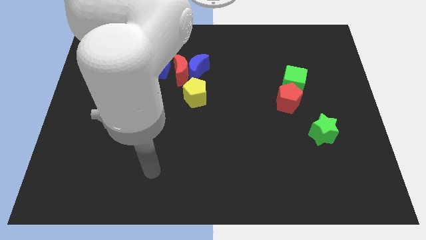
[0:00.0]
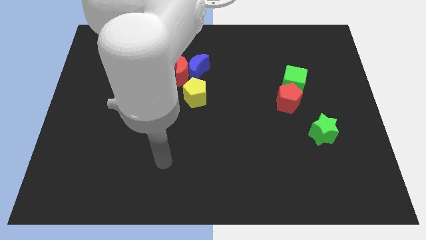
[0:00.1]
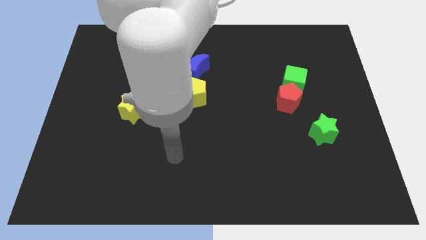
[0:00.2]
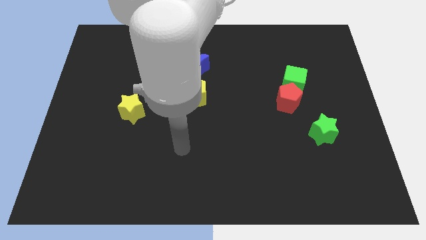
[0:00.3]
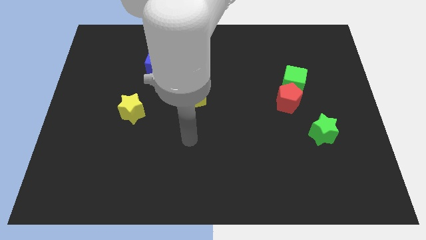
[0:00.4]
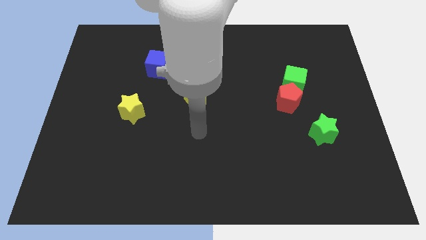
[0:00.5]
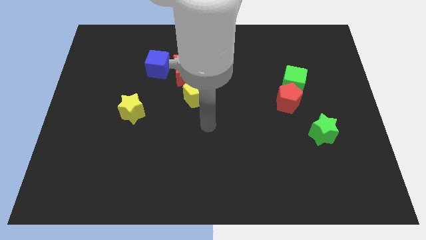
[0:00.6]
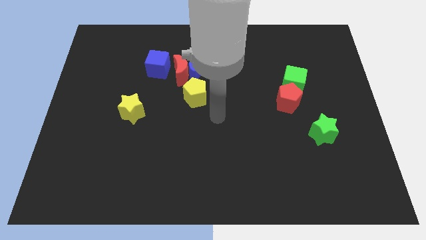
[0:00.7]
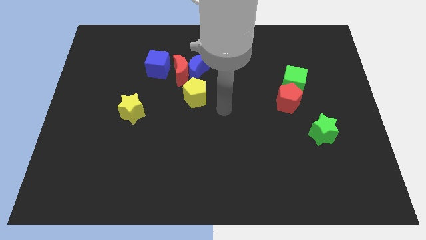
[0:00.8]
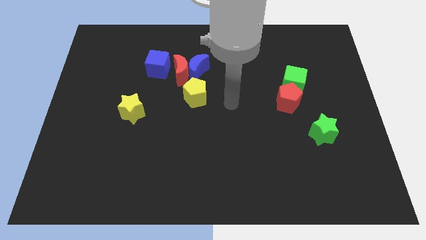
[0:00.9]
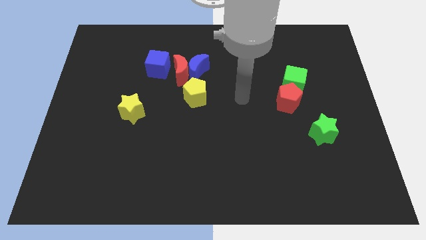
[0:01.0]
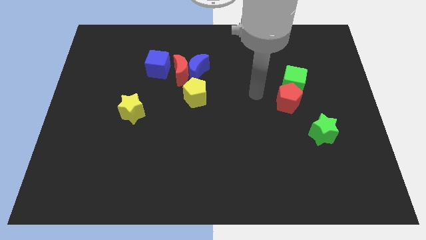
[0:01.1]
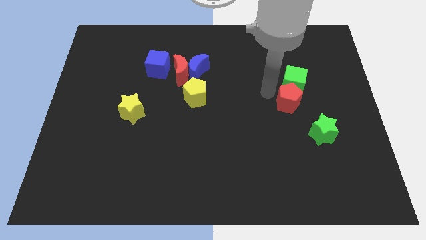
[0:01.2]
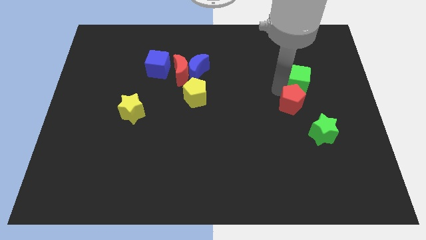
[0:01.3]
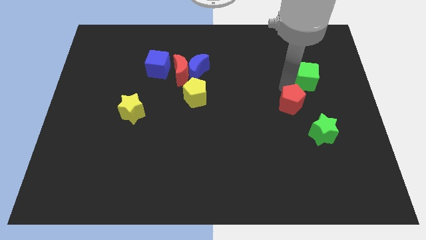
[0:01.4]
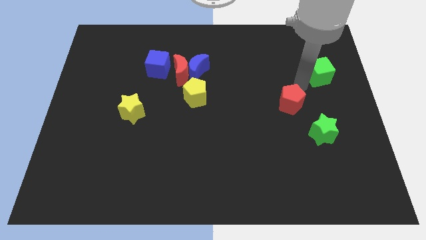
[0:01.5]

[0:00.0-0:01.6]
move the red pentagon away from the green cube

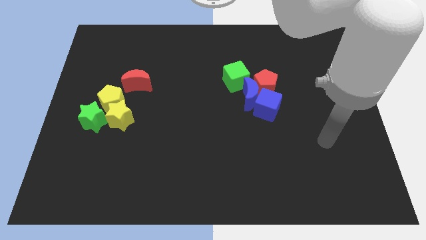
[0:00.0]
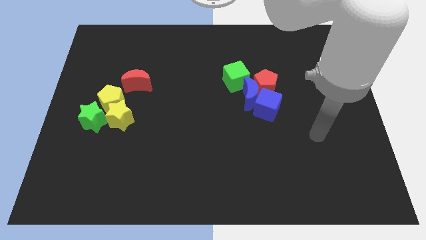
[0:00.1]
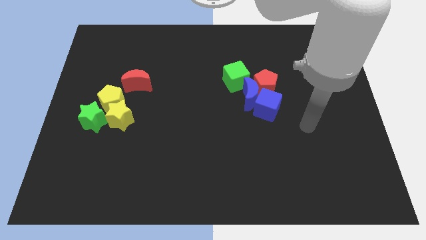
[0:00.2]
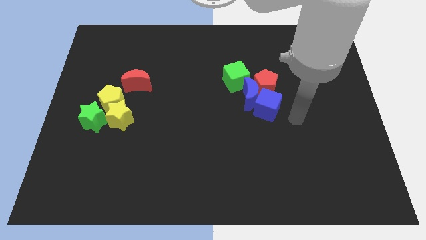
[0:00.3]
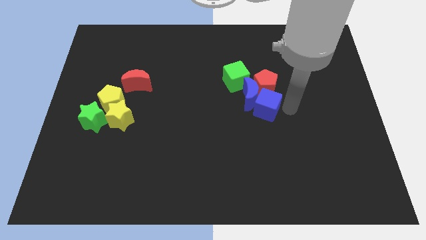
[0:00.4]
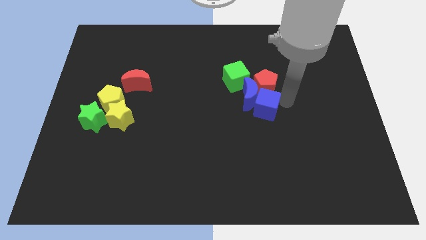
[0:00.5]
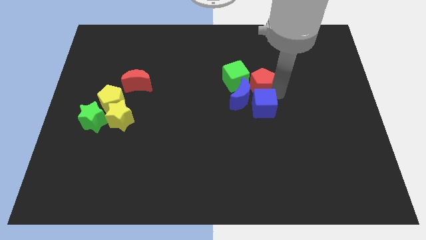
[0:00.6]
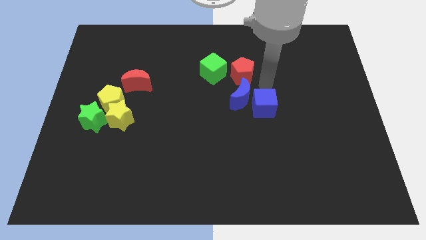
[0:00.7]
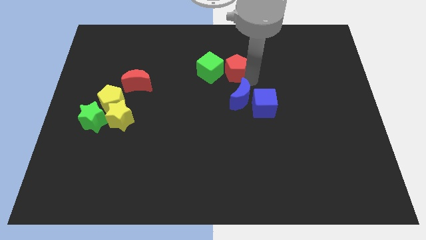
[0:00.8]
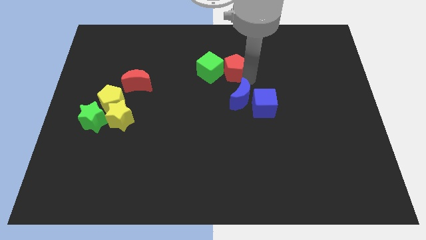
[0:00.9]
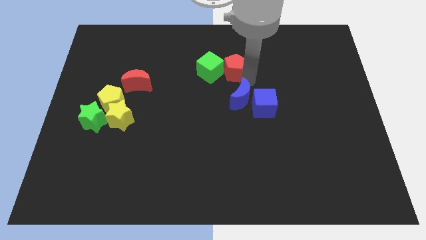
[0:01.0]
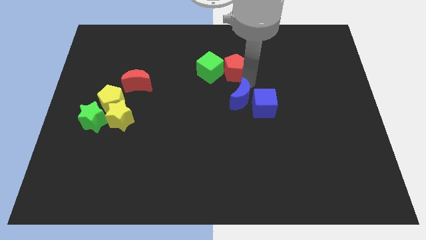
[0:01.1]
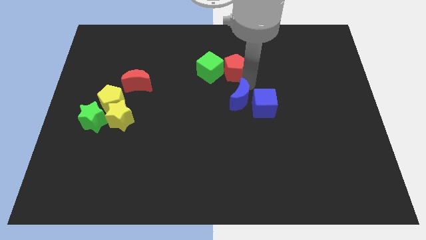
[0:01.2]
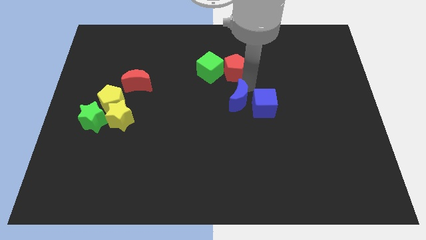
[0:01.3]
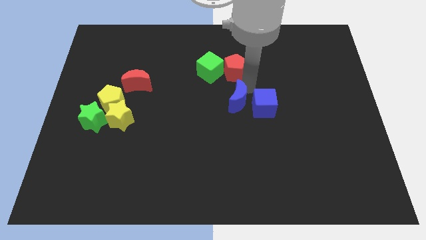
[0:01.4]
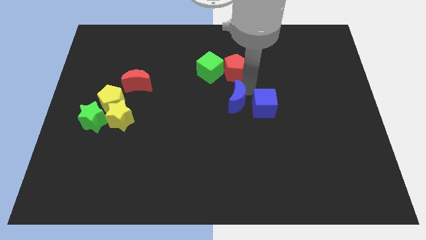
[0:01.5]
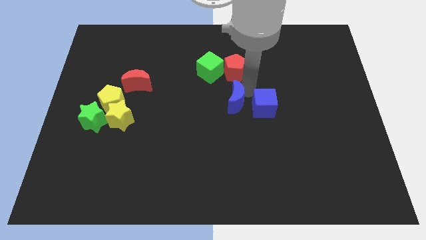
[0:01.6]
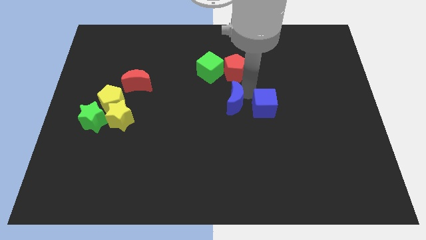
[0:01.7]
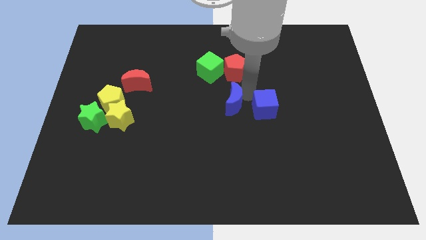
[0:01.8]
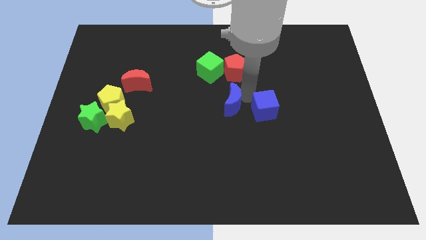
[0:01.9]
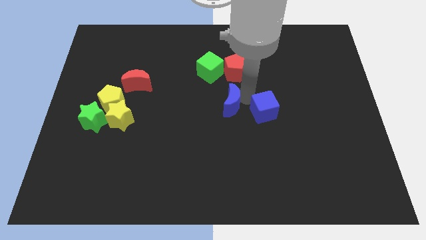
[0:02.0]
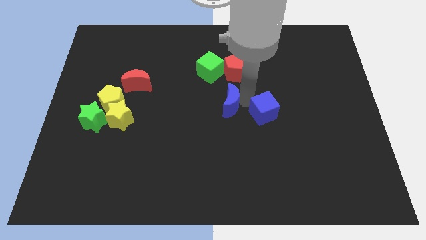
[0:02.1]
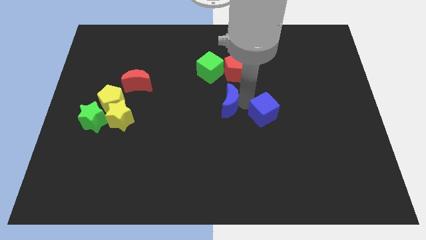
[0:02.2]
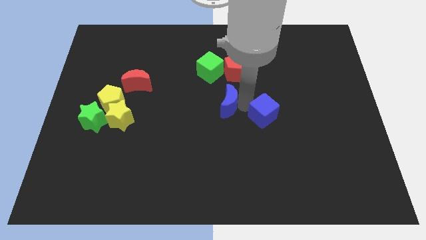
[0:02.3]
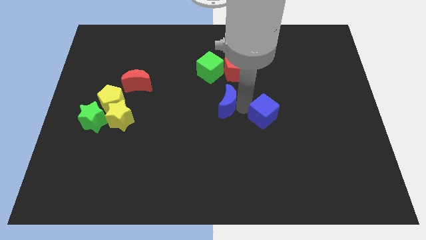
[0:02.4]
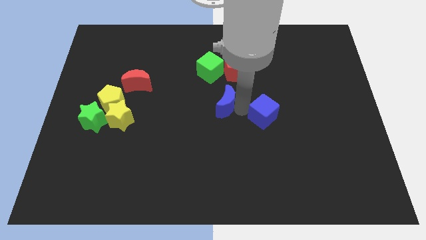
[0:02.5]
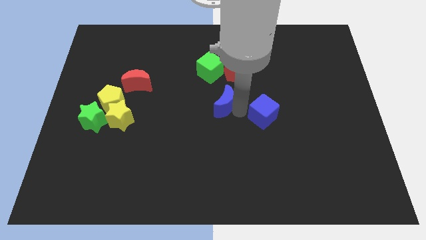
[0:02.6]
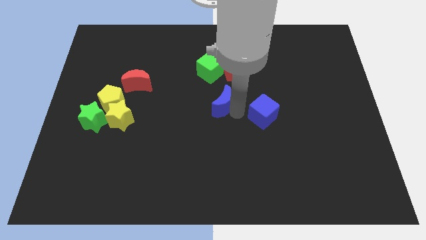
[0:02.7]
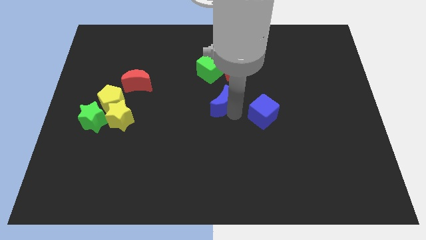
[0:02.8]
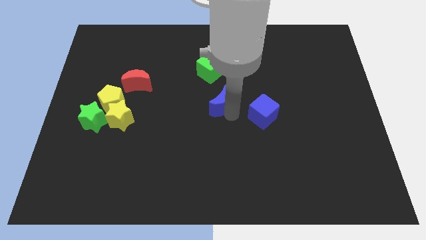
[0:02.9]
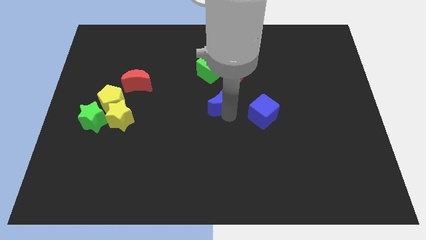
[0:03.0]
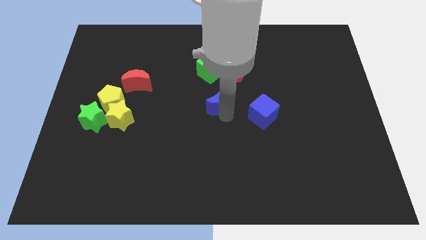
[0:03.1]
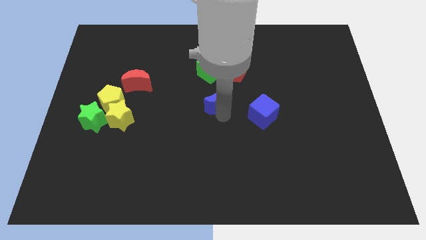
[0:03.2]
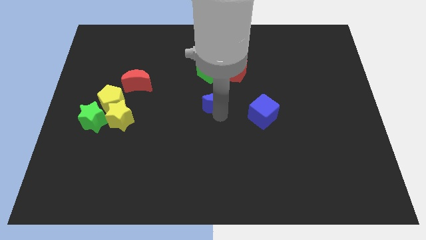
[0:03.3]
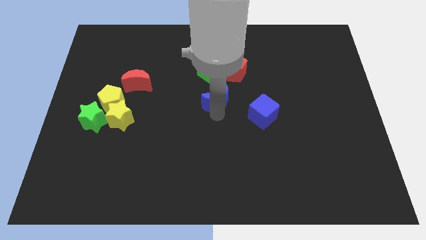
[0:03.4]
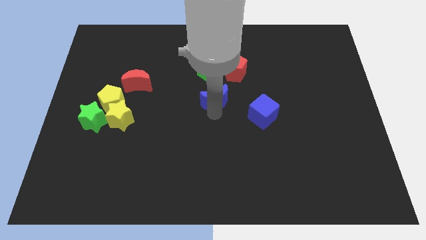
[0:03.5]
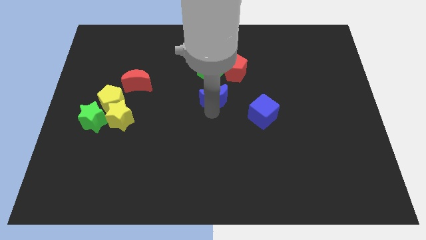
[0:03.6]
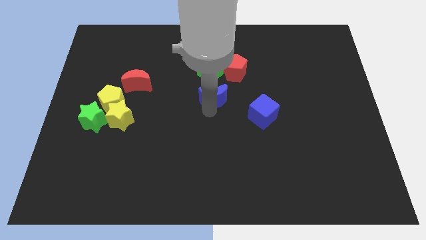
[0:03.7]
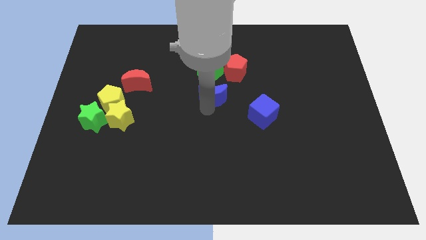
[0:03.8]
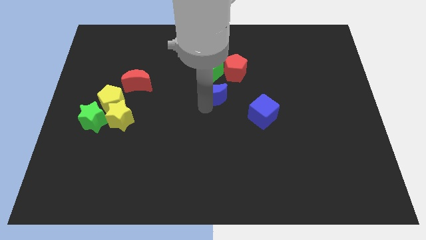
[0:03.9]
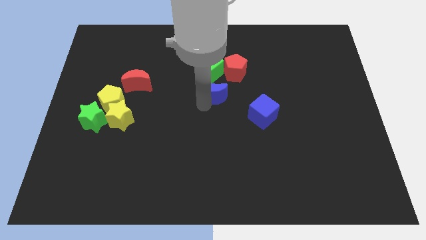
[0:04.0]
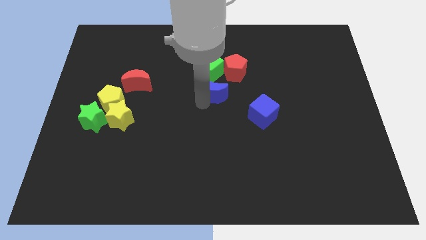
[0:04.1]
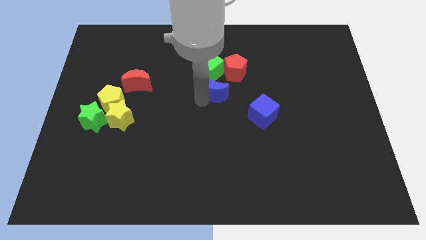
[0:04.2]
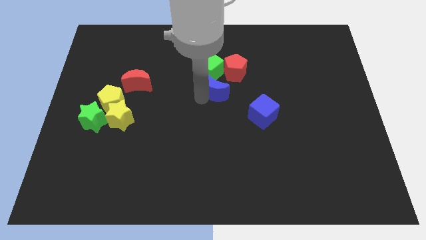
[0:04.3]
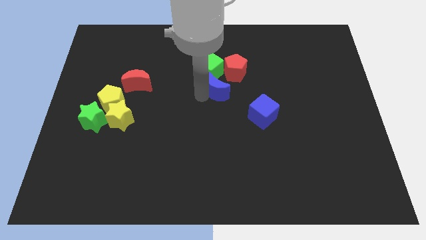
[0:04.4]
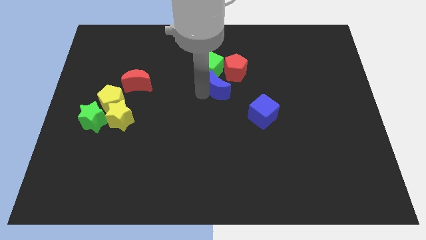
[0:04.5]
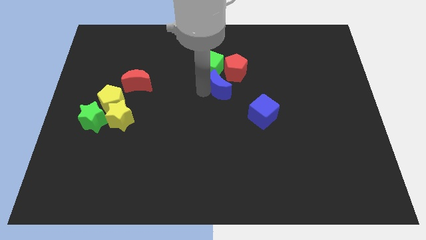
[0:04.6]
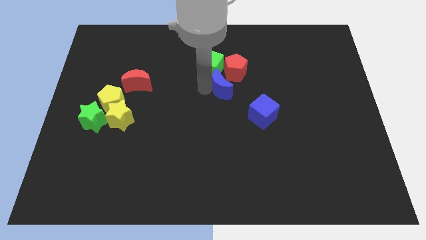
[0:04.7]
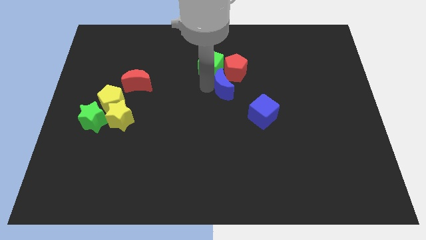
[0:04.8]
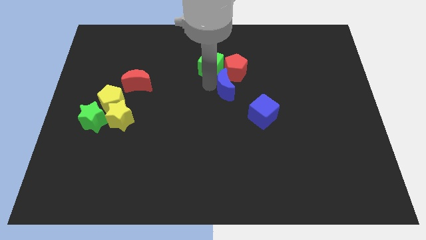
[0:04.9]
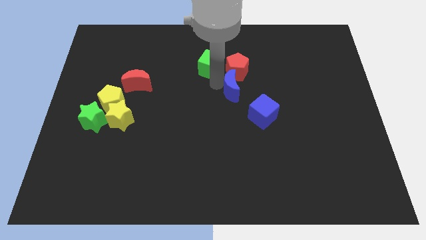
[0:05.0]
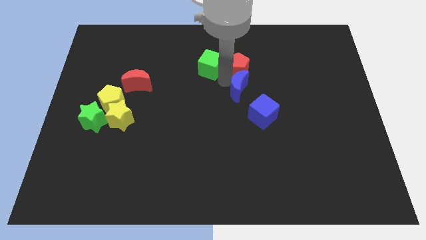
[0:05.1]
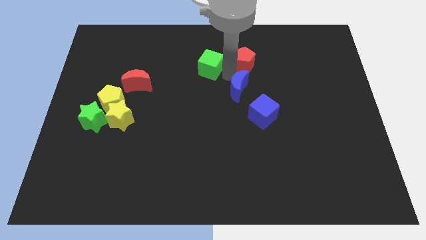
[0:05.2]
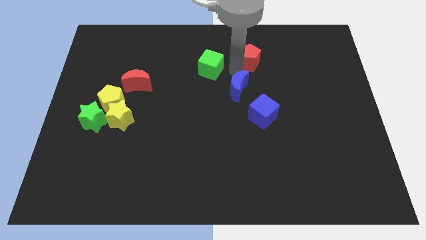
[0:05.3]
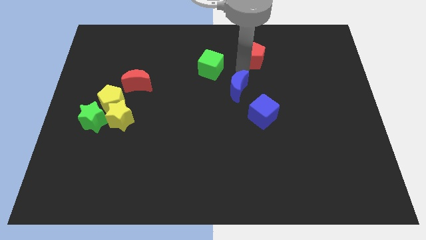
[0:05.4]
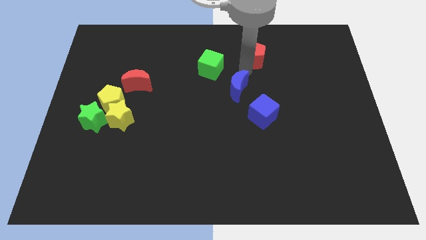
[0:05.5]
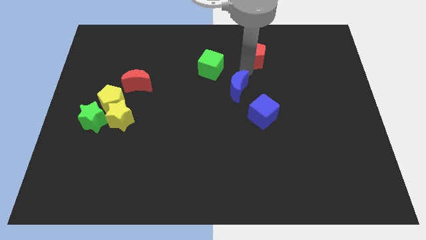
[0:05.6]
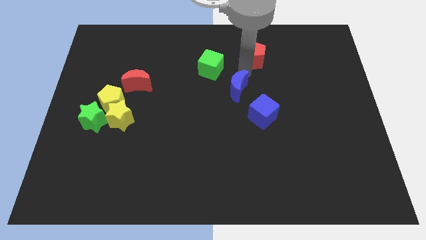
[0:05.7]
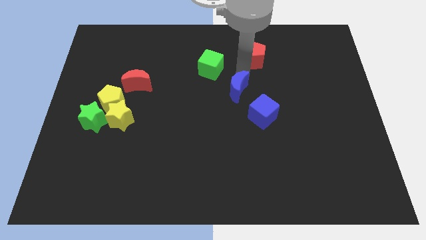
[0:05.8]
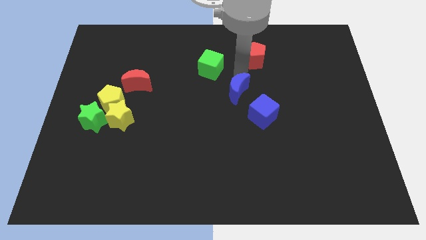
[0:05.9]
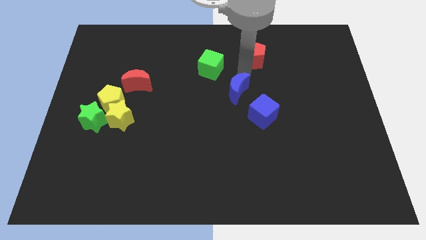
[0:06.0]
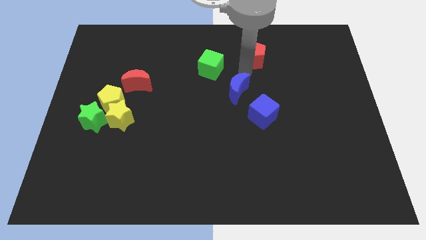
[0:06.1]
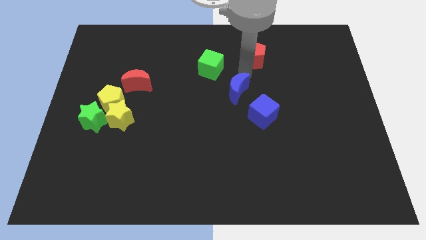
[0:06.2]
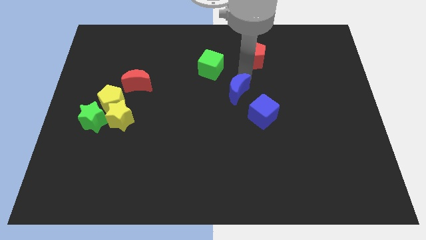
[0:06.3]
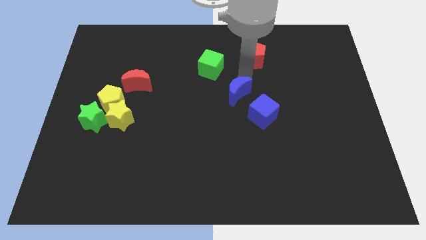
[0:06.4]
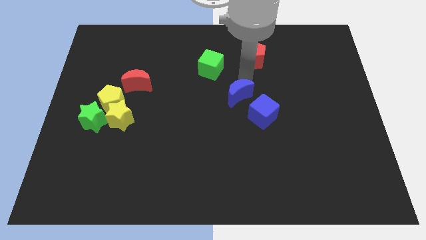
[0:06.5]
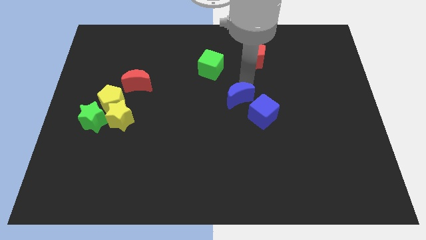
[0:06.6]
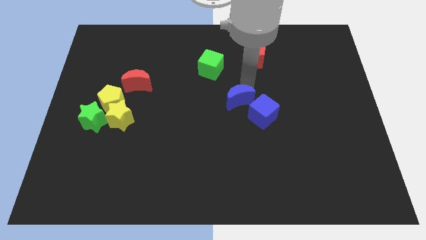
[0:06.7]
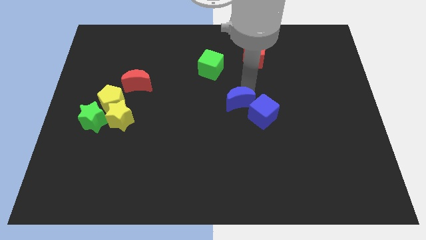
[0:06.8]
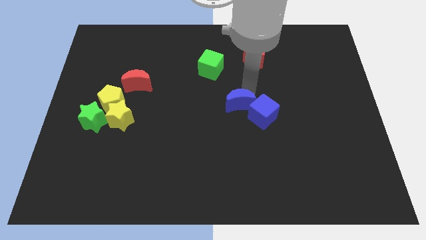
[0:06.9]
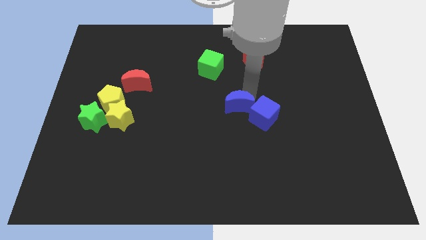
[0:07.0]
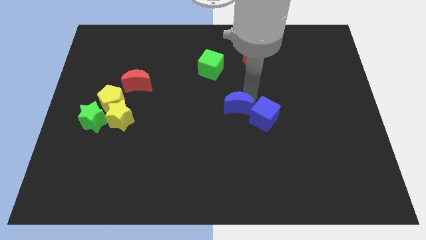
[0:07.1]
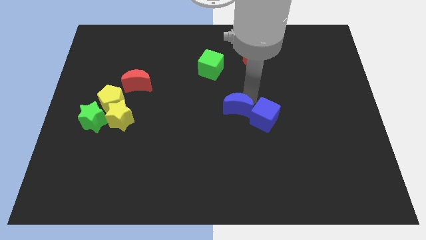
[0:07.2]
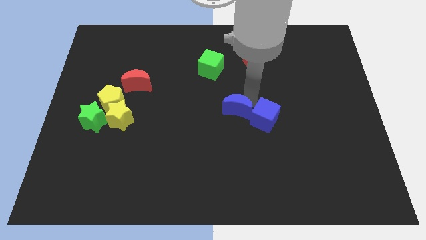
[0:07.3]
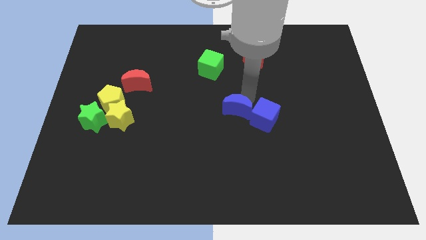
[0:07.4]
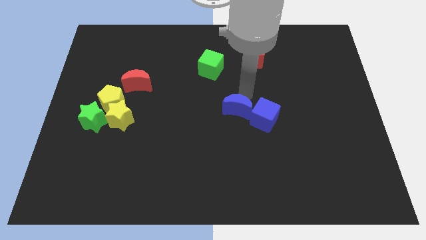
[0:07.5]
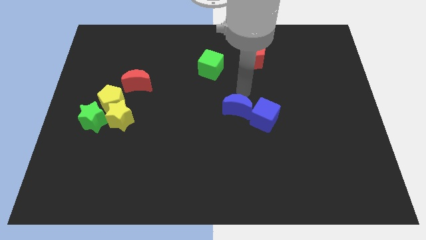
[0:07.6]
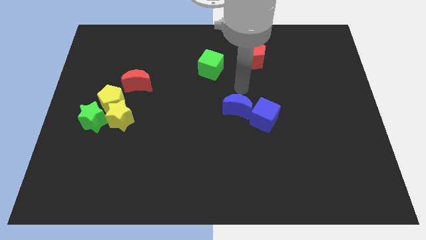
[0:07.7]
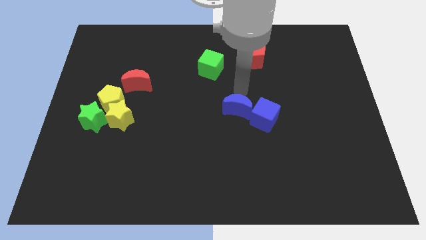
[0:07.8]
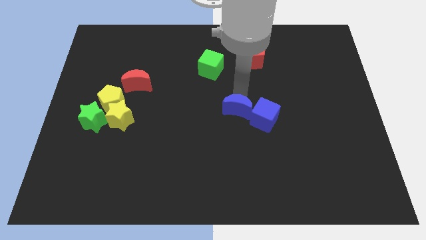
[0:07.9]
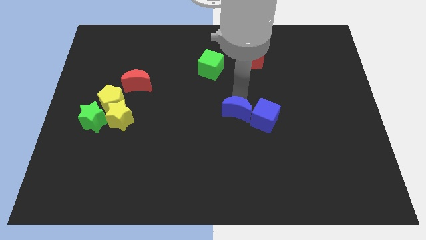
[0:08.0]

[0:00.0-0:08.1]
separate the blue moon from the group
